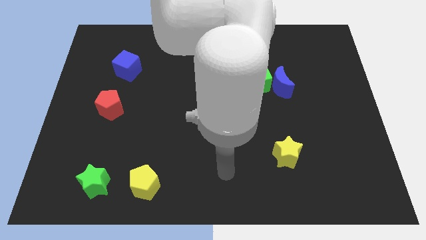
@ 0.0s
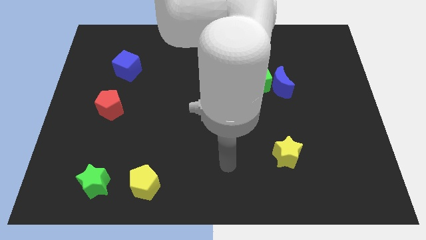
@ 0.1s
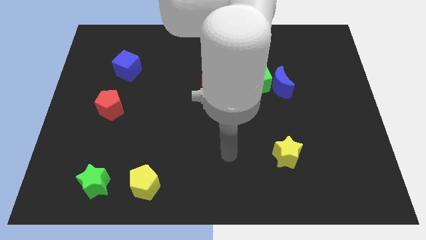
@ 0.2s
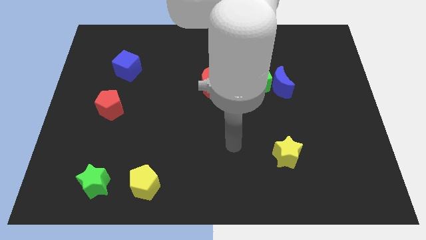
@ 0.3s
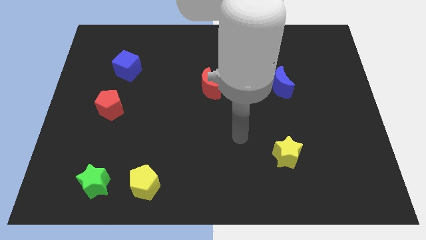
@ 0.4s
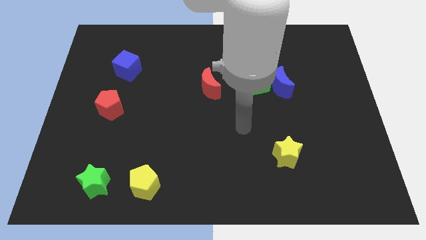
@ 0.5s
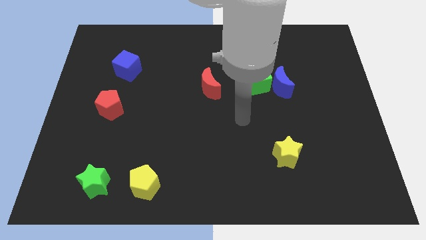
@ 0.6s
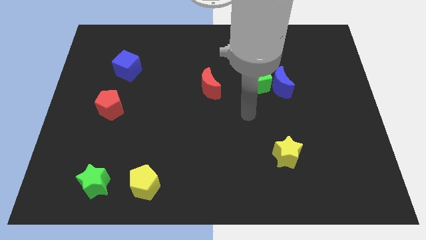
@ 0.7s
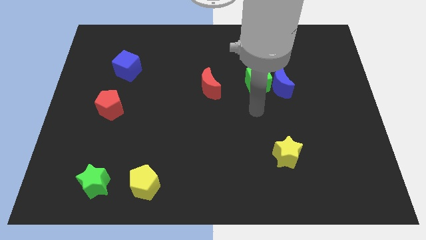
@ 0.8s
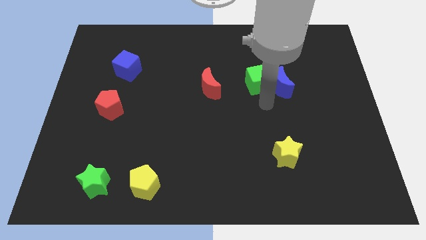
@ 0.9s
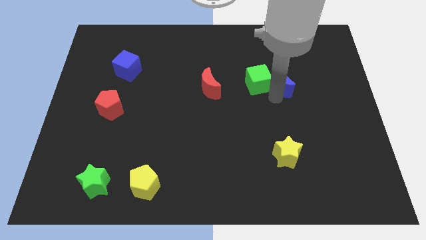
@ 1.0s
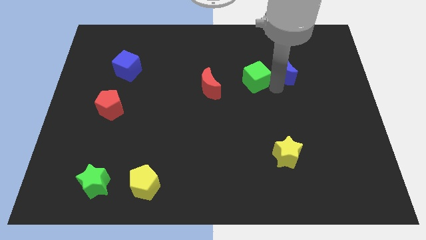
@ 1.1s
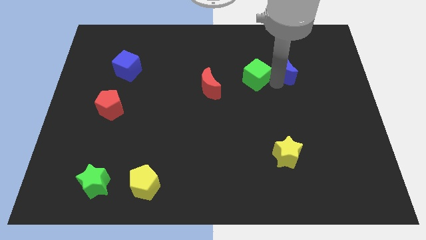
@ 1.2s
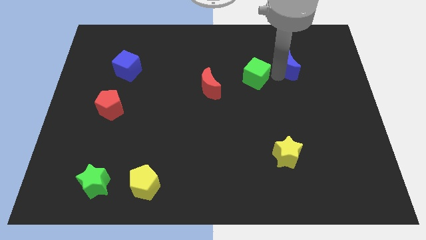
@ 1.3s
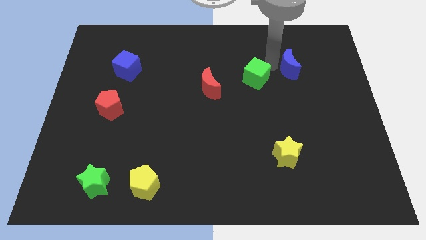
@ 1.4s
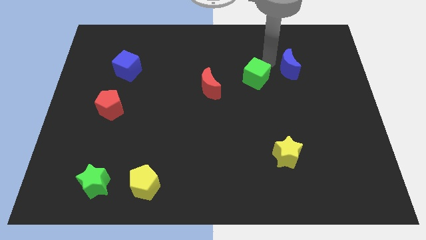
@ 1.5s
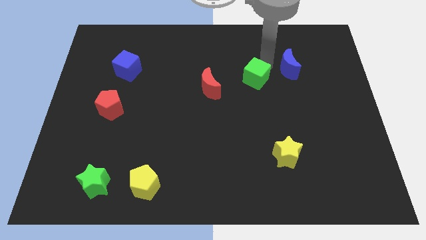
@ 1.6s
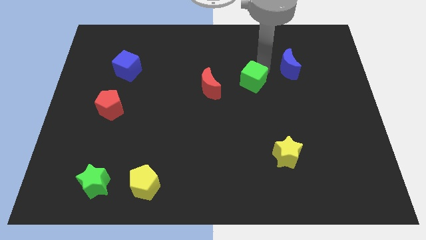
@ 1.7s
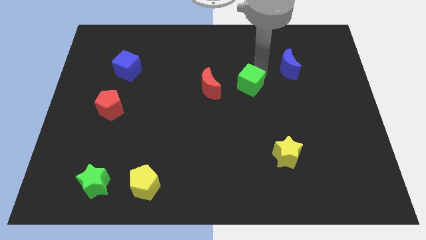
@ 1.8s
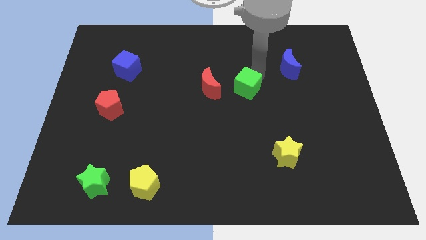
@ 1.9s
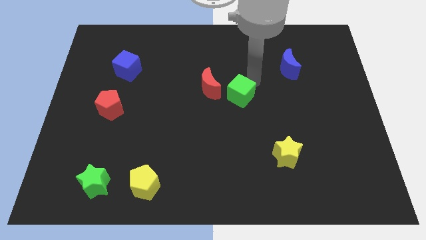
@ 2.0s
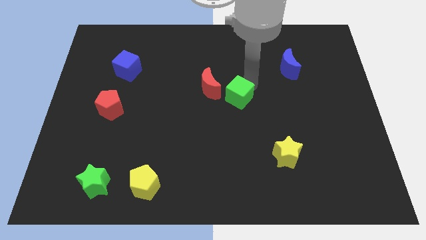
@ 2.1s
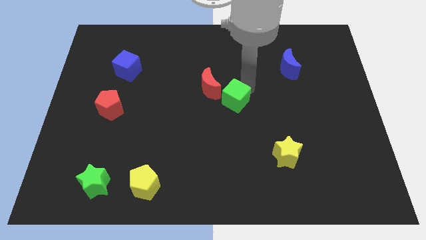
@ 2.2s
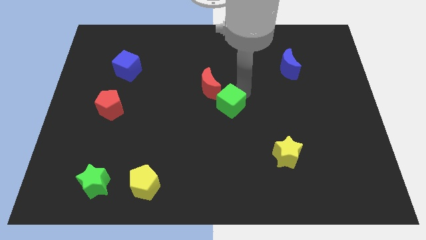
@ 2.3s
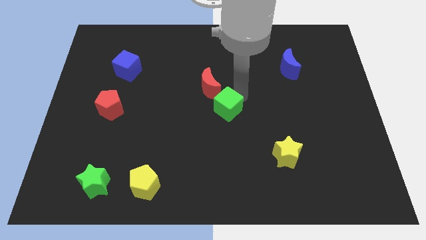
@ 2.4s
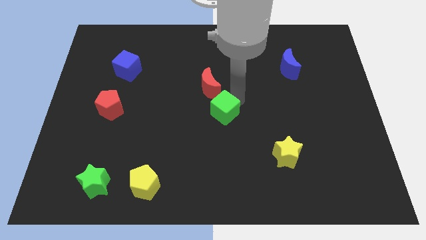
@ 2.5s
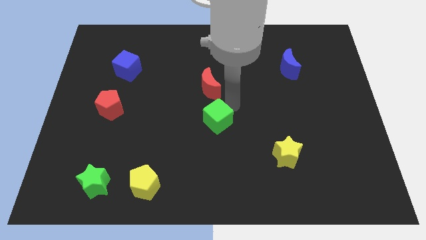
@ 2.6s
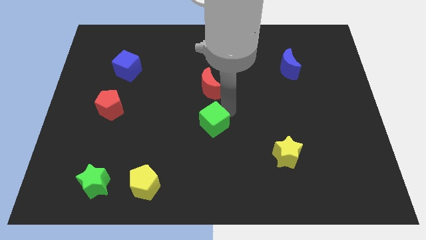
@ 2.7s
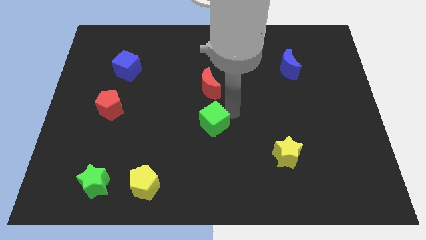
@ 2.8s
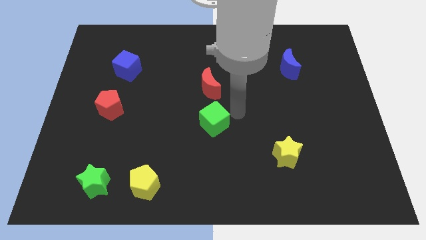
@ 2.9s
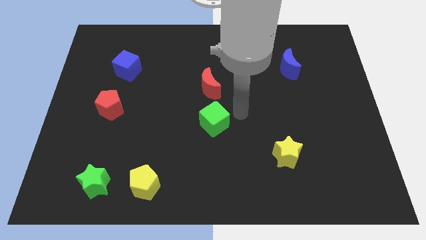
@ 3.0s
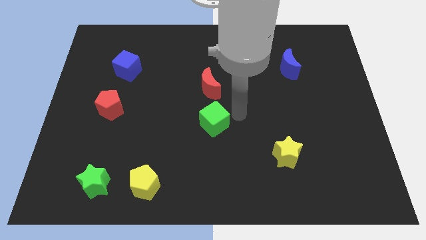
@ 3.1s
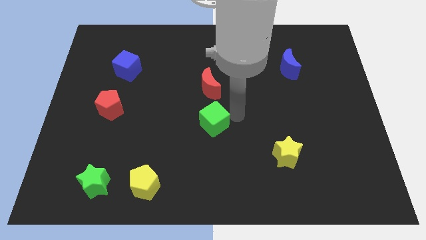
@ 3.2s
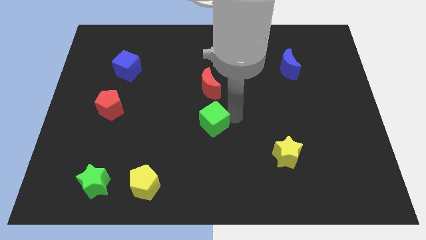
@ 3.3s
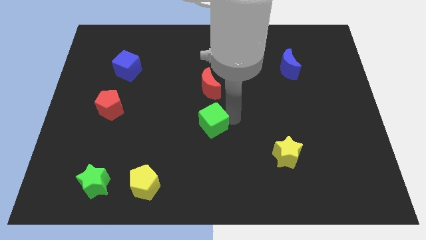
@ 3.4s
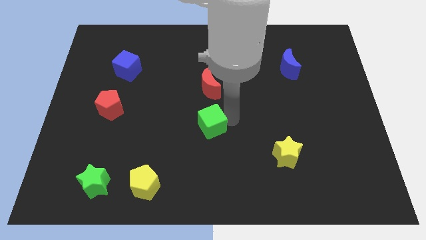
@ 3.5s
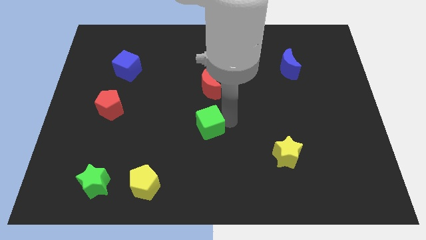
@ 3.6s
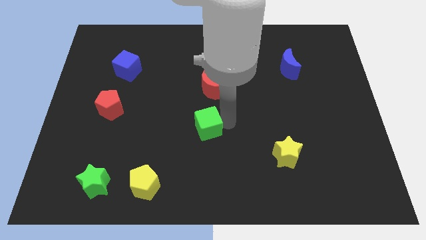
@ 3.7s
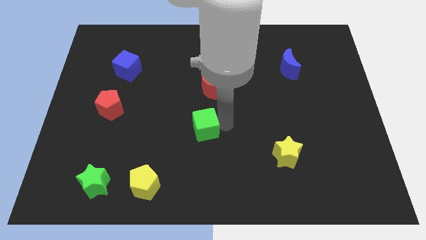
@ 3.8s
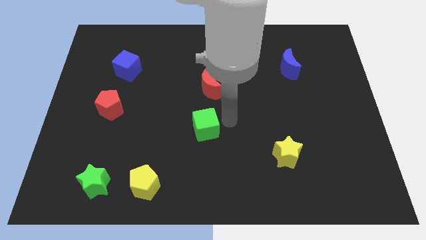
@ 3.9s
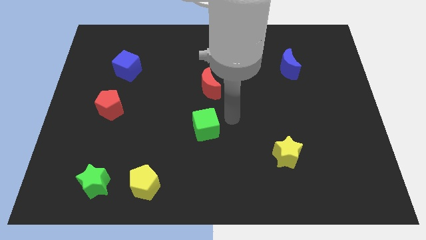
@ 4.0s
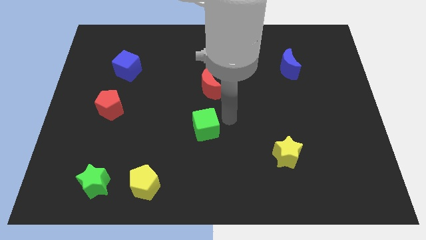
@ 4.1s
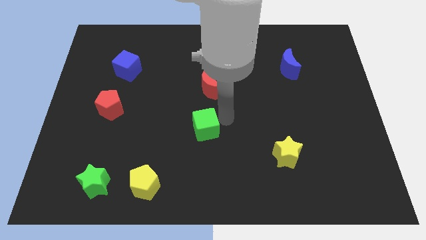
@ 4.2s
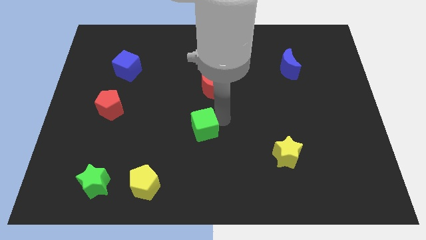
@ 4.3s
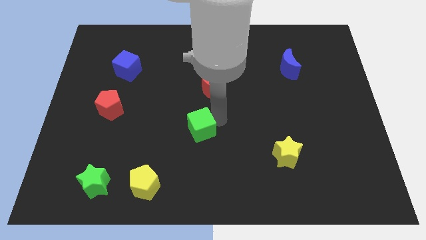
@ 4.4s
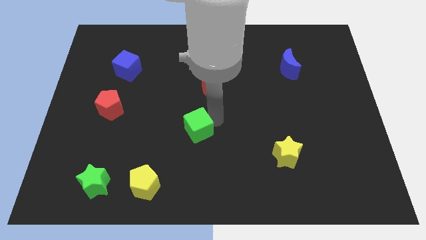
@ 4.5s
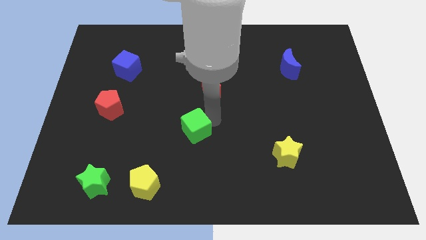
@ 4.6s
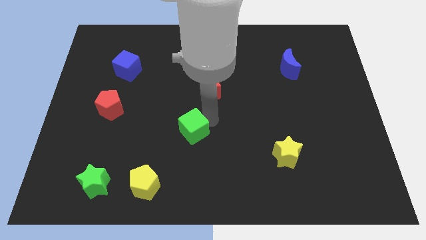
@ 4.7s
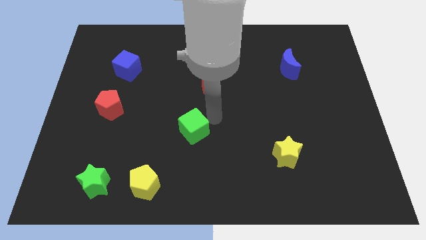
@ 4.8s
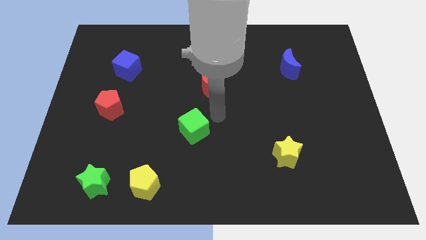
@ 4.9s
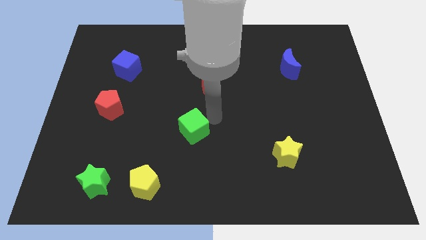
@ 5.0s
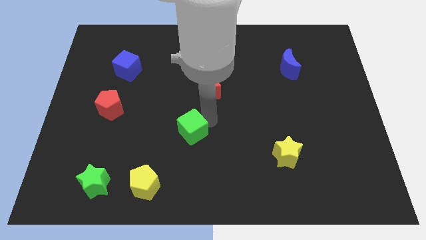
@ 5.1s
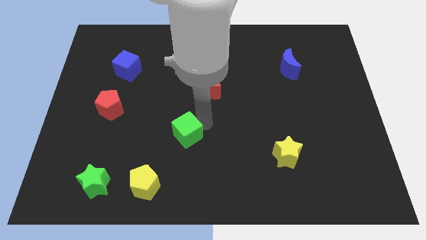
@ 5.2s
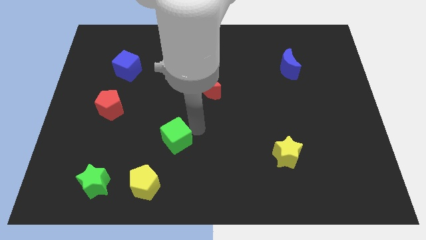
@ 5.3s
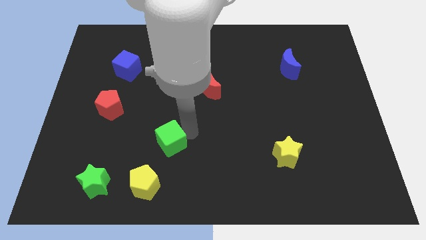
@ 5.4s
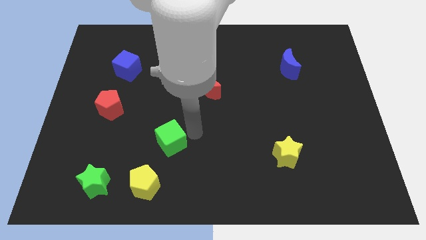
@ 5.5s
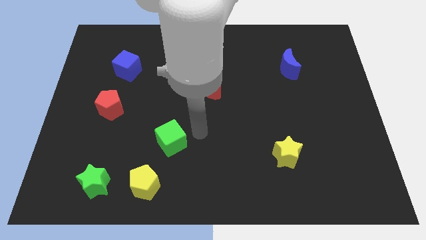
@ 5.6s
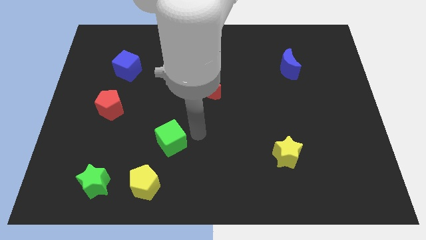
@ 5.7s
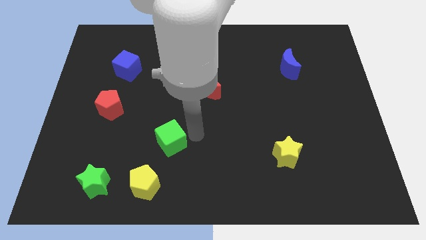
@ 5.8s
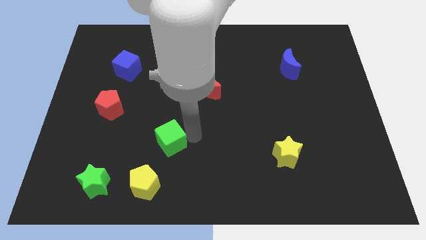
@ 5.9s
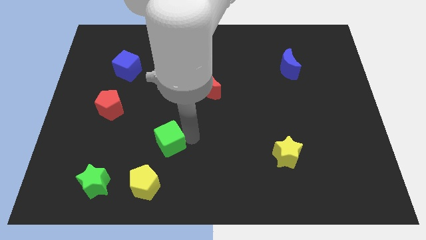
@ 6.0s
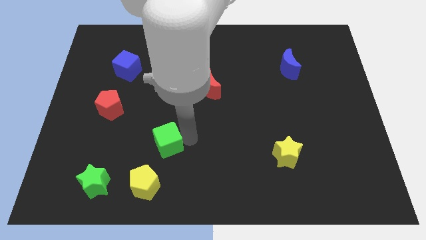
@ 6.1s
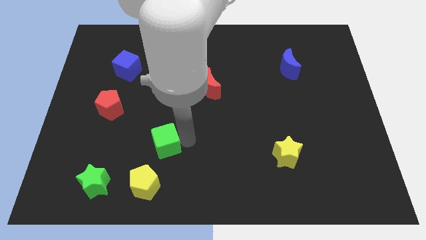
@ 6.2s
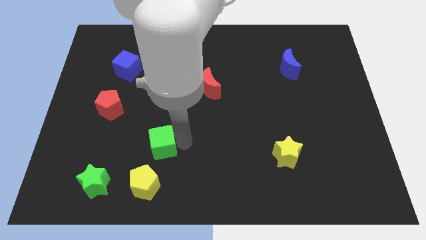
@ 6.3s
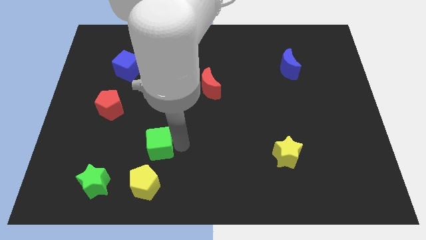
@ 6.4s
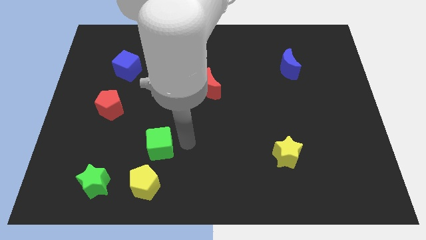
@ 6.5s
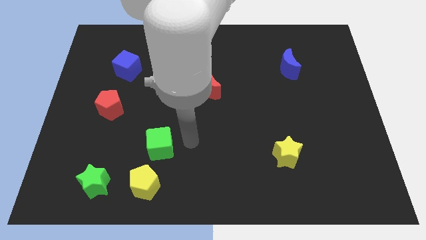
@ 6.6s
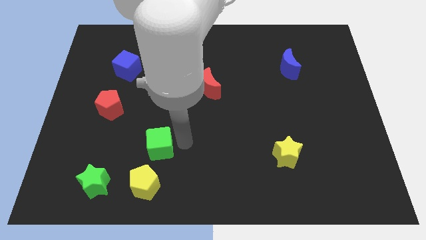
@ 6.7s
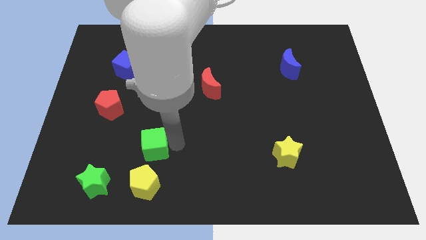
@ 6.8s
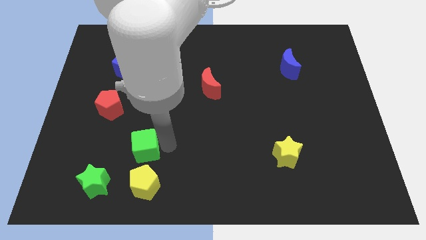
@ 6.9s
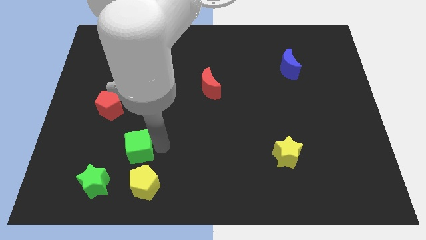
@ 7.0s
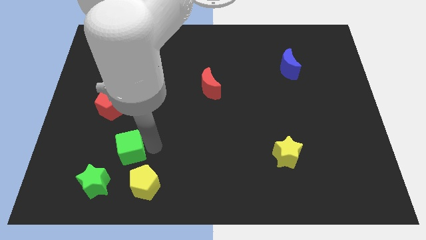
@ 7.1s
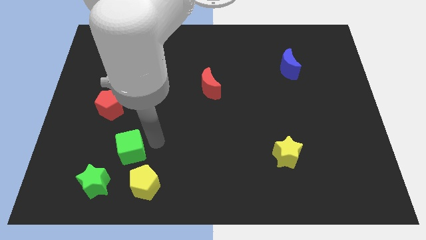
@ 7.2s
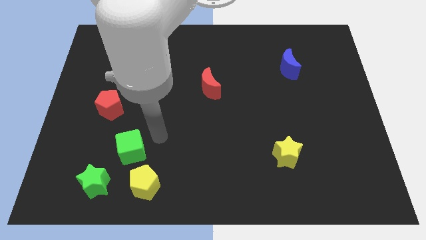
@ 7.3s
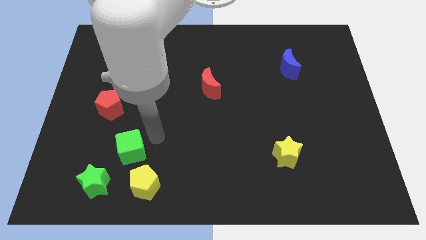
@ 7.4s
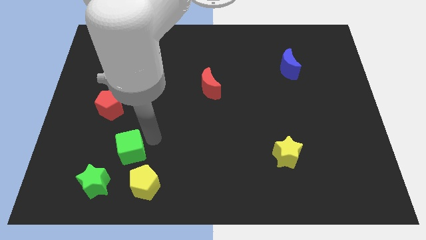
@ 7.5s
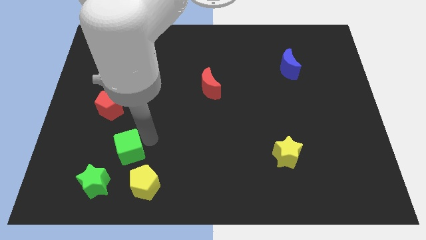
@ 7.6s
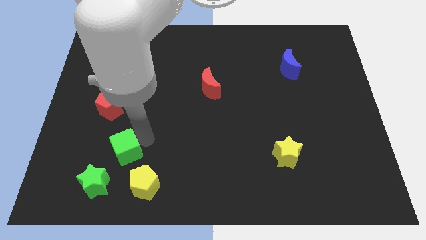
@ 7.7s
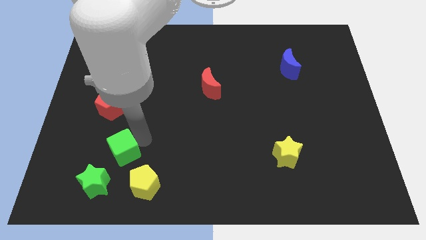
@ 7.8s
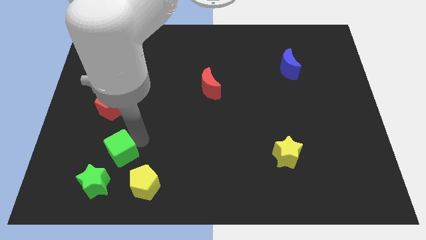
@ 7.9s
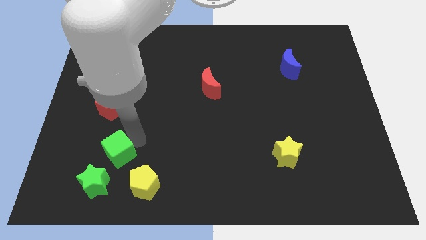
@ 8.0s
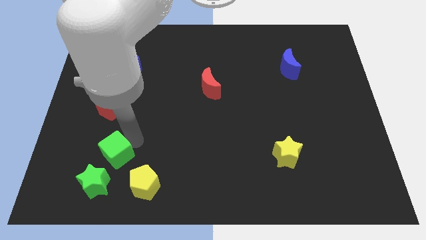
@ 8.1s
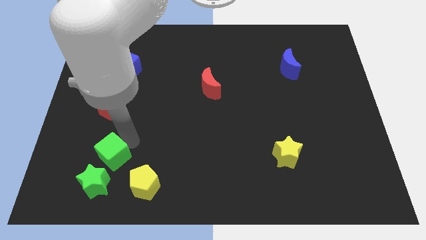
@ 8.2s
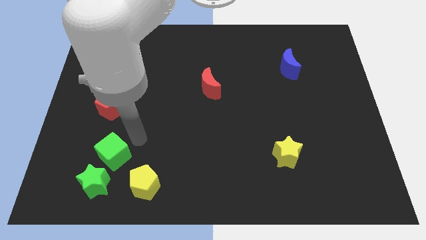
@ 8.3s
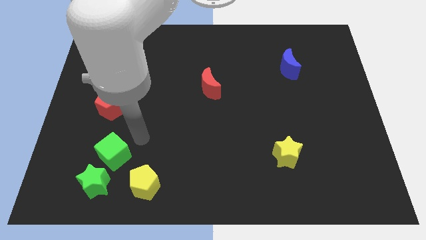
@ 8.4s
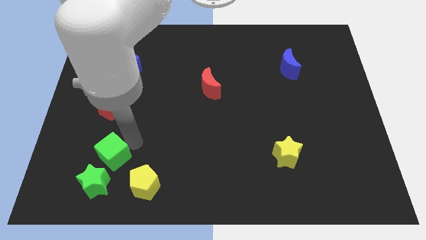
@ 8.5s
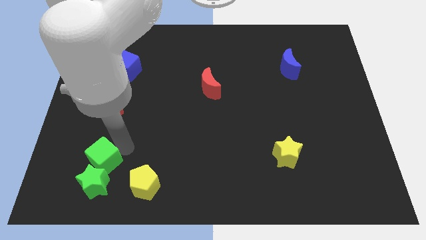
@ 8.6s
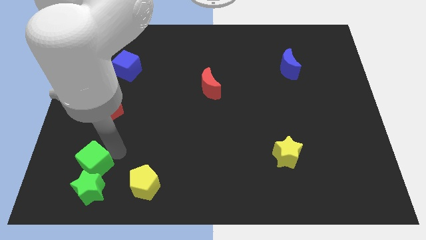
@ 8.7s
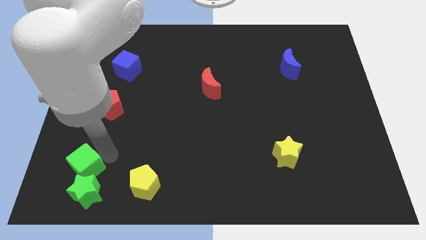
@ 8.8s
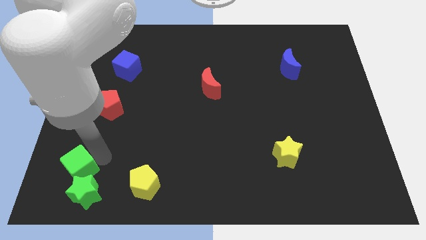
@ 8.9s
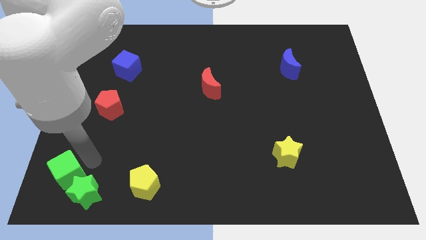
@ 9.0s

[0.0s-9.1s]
push the green cube to the bottom left of the board
